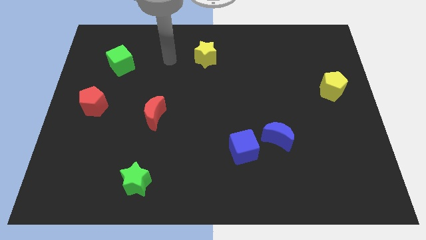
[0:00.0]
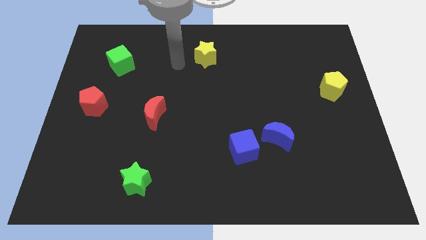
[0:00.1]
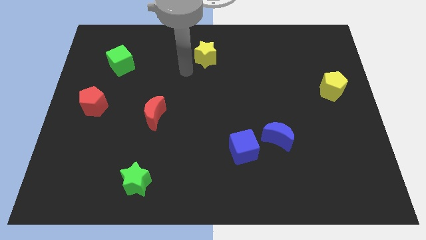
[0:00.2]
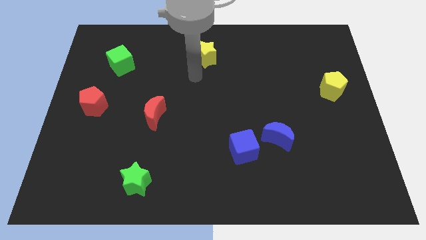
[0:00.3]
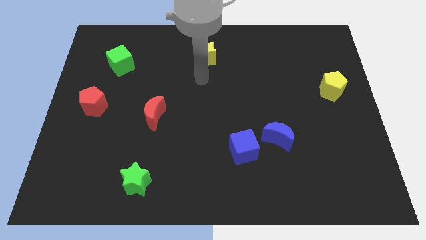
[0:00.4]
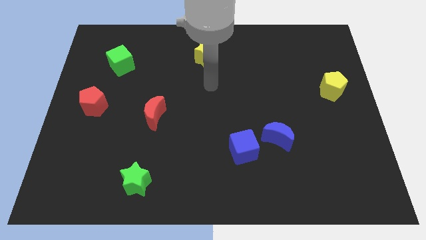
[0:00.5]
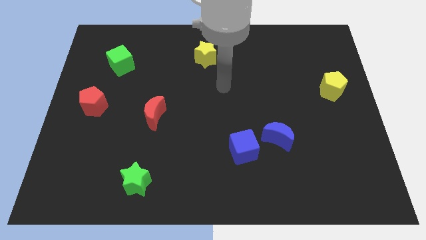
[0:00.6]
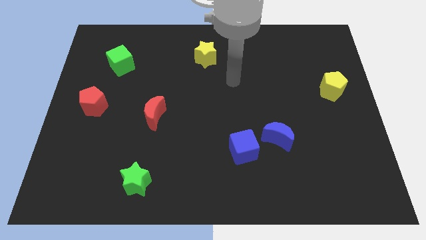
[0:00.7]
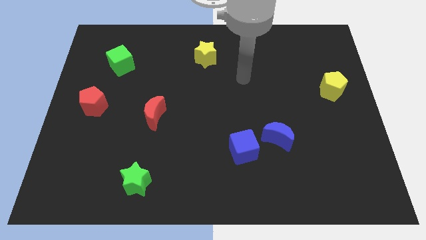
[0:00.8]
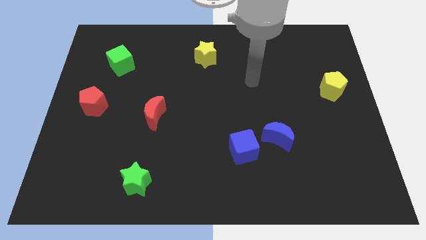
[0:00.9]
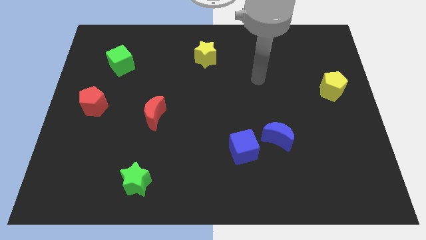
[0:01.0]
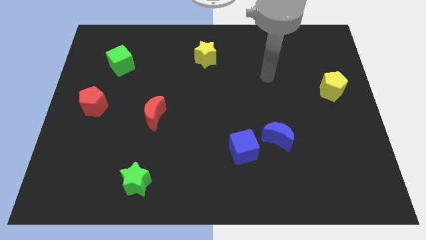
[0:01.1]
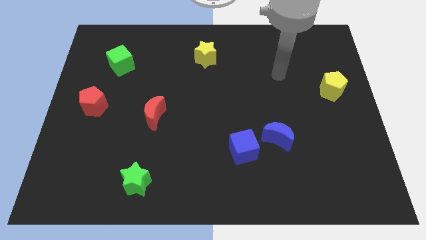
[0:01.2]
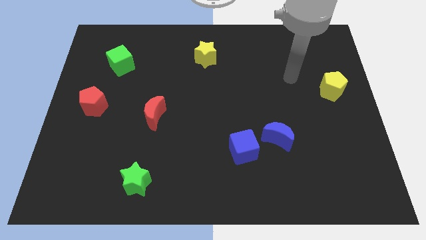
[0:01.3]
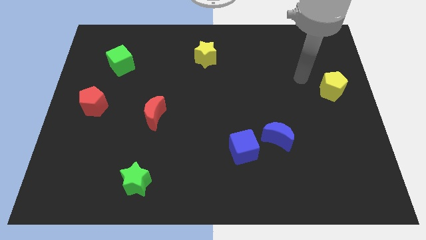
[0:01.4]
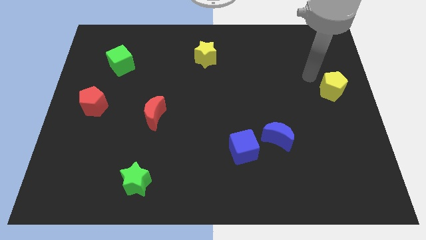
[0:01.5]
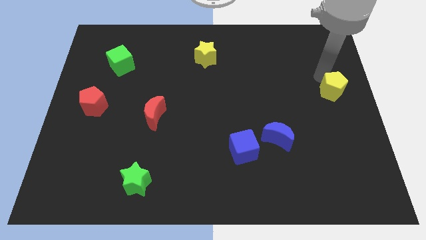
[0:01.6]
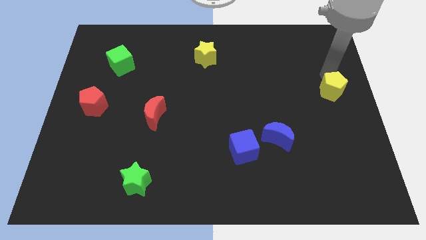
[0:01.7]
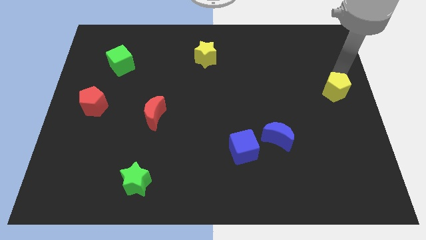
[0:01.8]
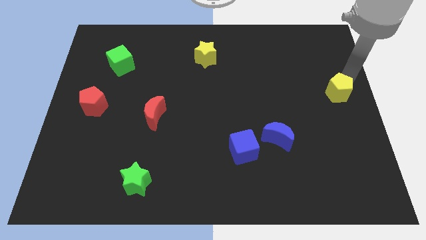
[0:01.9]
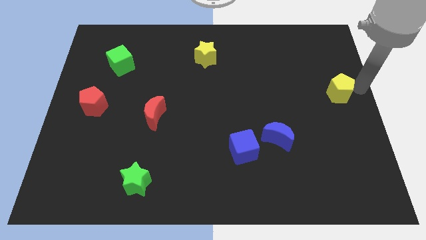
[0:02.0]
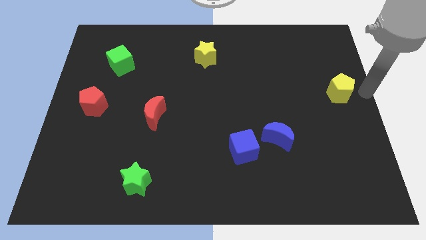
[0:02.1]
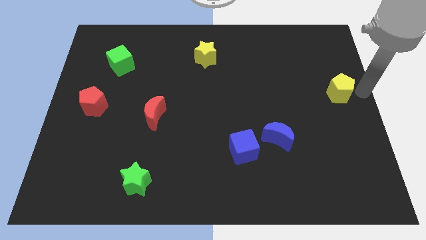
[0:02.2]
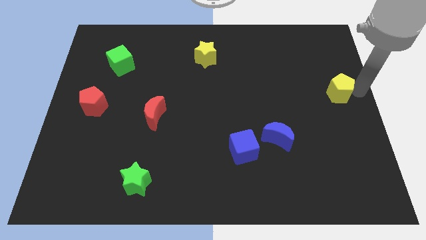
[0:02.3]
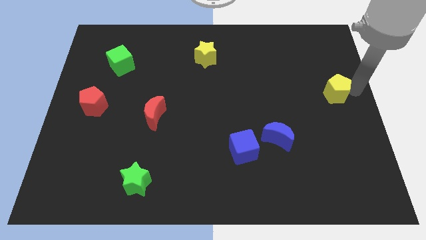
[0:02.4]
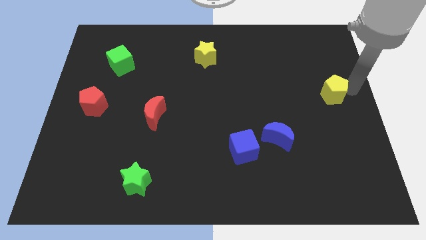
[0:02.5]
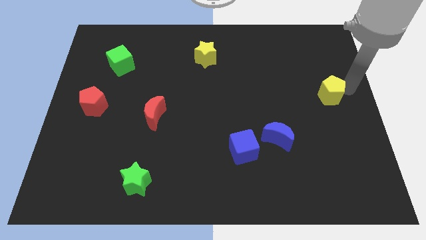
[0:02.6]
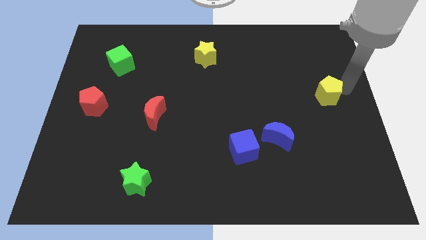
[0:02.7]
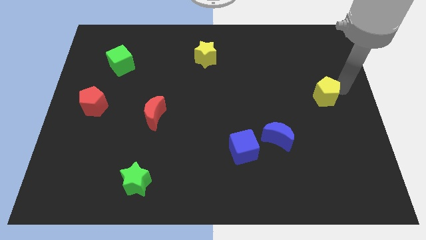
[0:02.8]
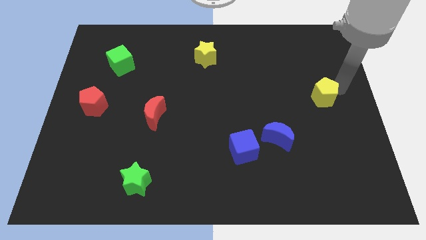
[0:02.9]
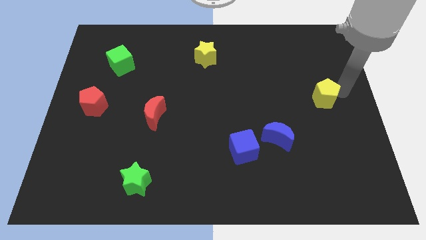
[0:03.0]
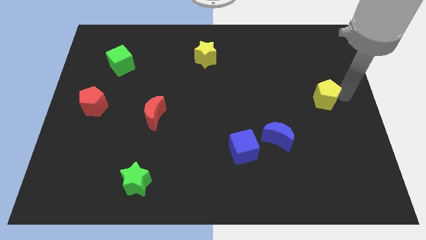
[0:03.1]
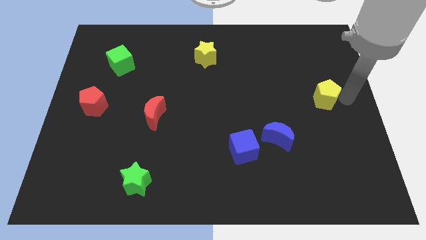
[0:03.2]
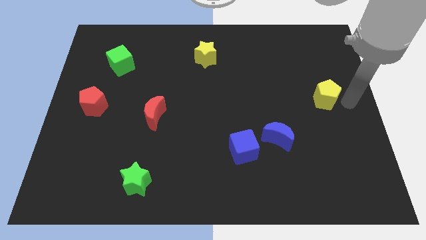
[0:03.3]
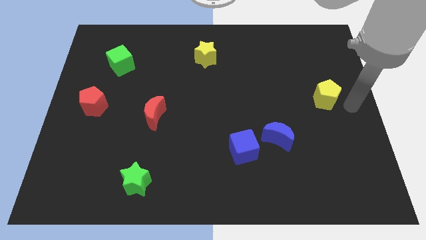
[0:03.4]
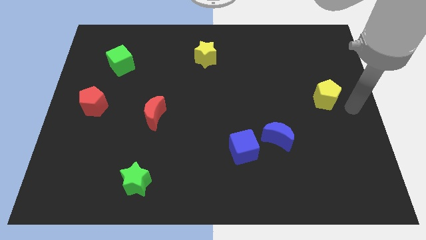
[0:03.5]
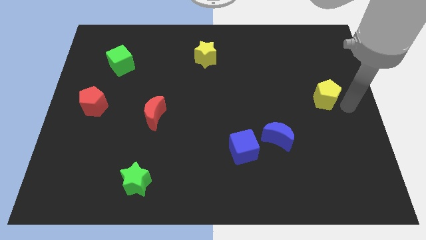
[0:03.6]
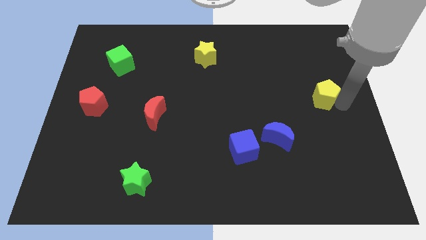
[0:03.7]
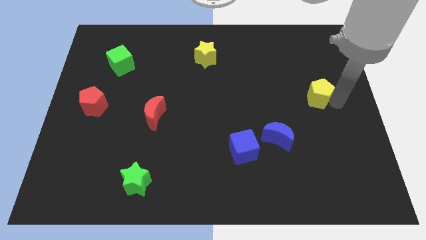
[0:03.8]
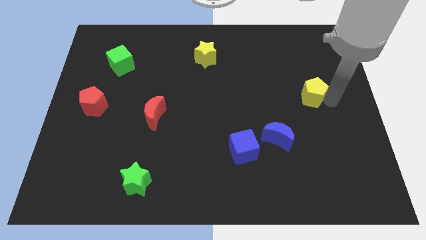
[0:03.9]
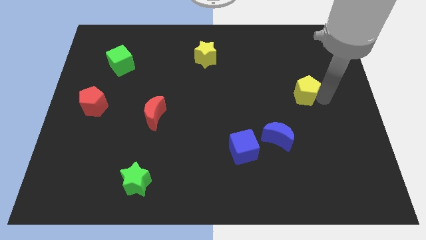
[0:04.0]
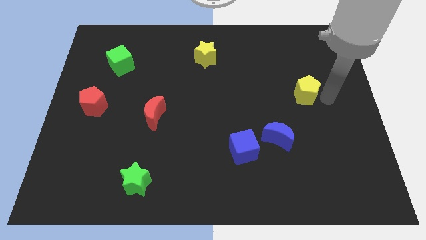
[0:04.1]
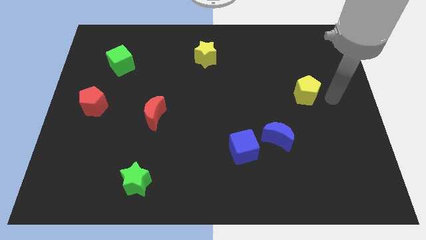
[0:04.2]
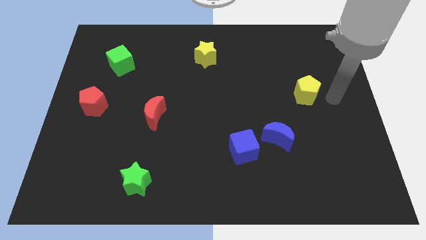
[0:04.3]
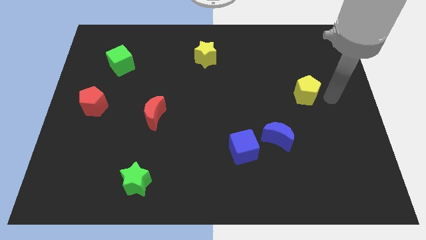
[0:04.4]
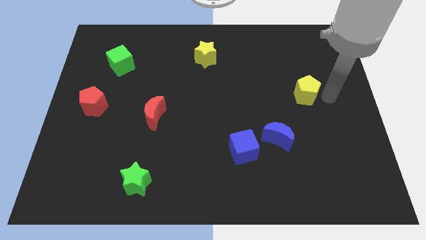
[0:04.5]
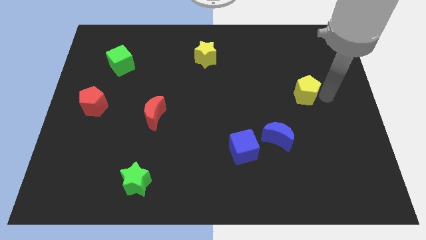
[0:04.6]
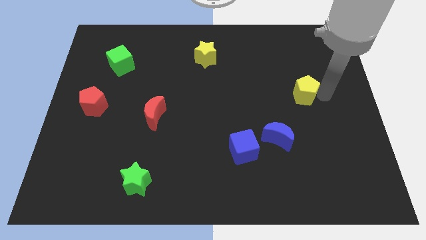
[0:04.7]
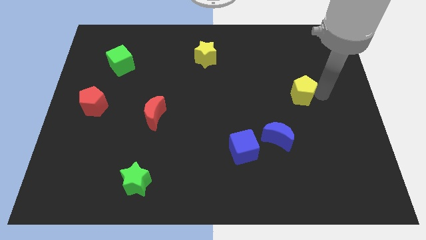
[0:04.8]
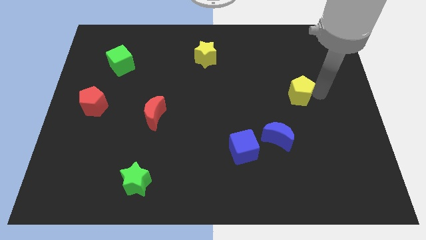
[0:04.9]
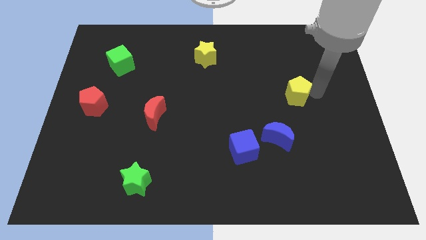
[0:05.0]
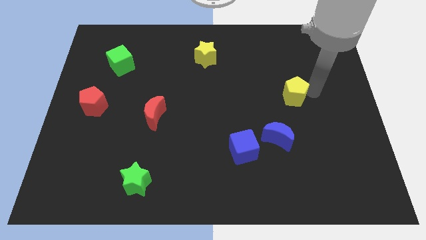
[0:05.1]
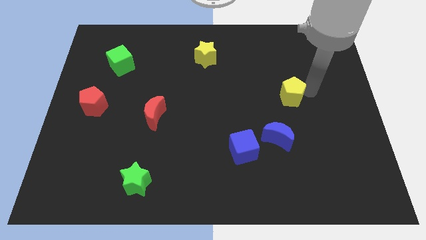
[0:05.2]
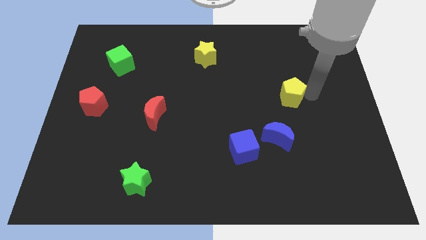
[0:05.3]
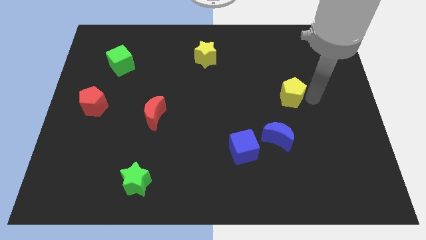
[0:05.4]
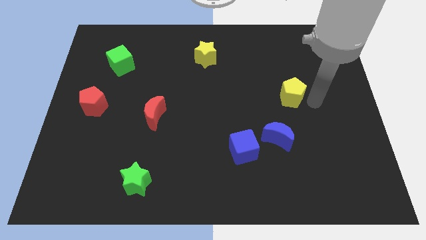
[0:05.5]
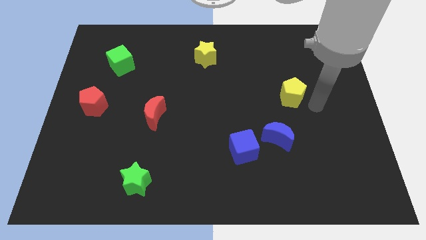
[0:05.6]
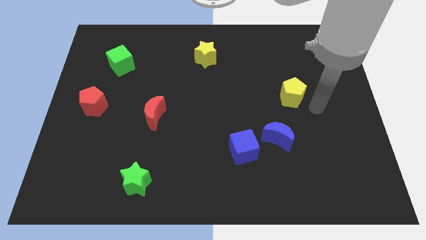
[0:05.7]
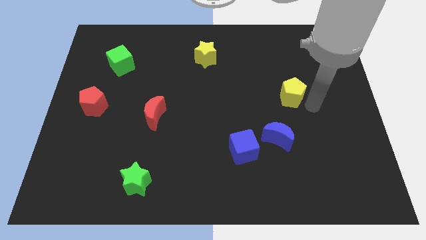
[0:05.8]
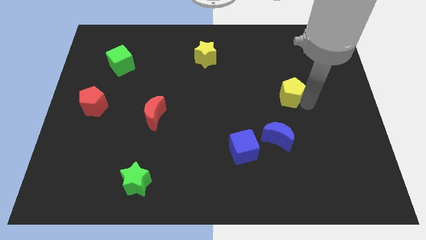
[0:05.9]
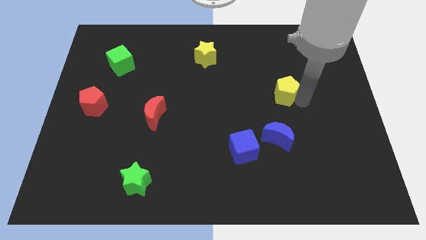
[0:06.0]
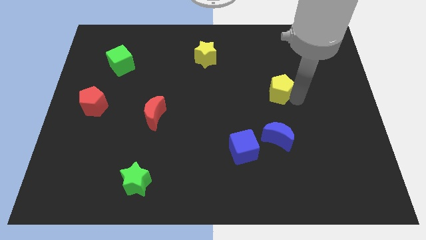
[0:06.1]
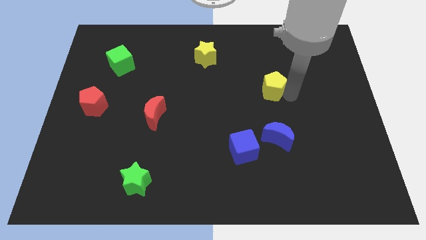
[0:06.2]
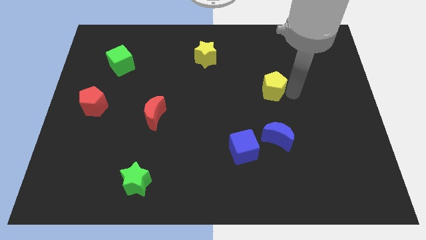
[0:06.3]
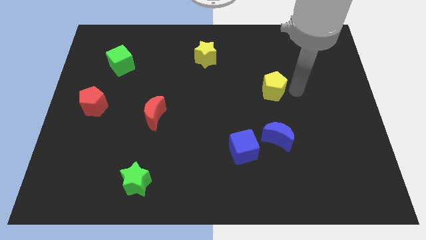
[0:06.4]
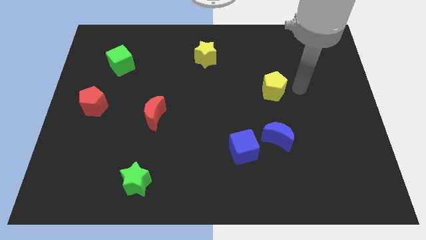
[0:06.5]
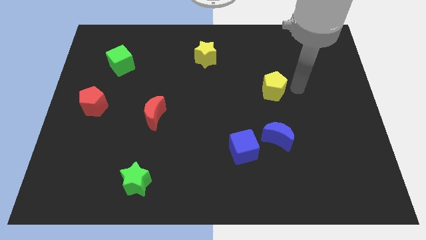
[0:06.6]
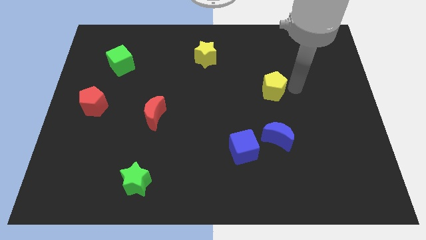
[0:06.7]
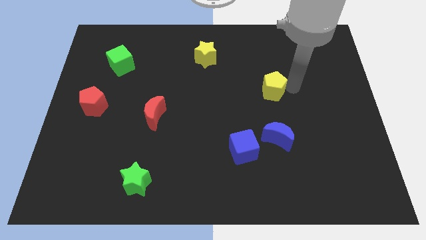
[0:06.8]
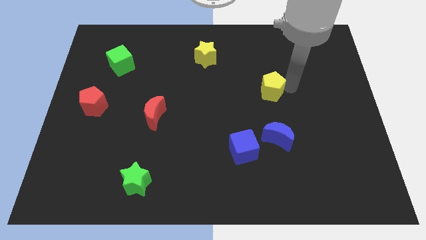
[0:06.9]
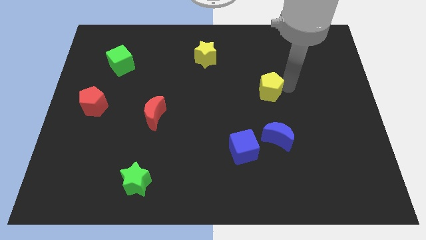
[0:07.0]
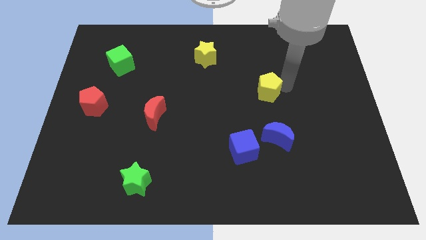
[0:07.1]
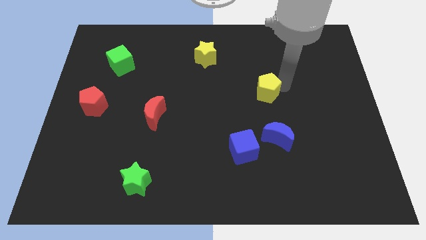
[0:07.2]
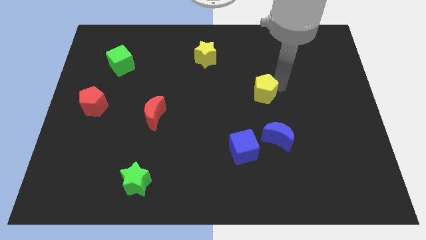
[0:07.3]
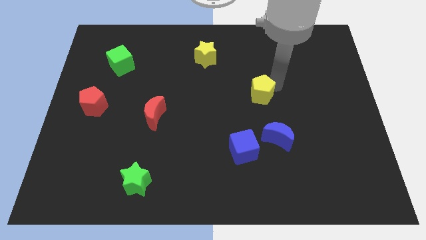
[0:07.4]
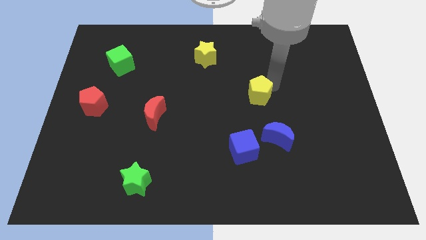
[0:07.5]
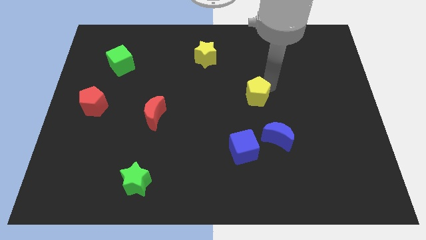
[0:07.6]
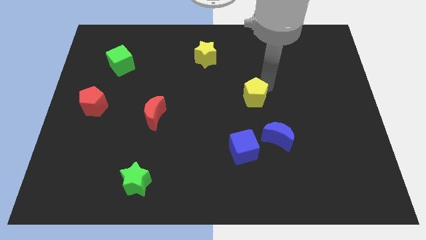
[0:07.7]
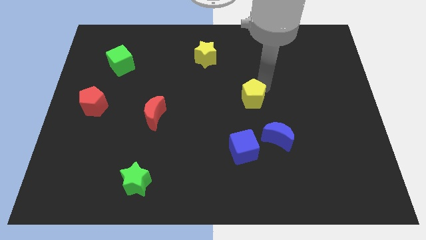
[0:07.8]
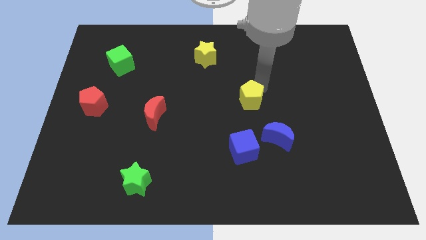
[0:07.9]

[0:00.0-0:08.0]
slide the yellow pentagon to the left
